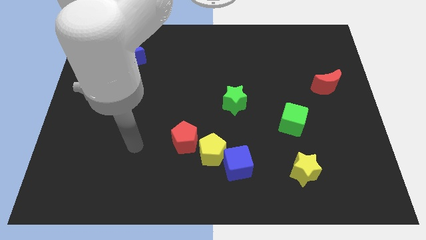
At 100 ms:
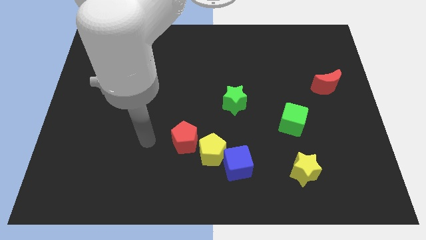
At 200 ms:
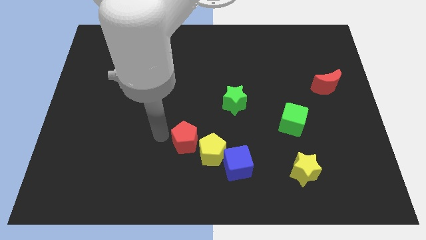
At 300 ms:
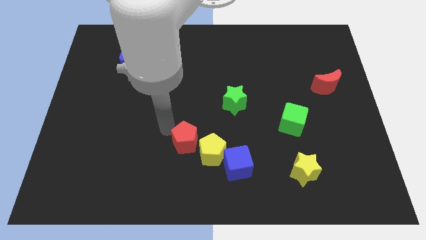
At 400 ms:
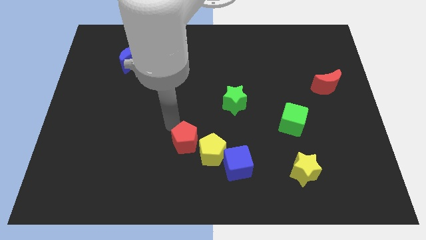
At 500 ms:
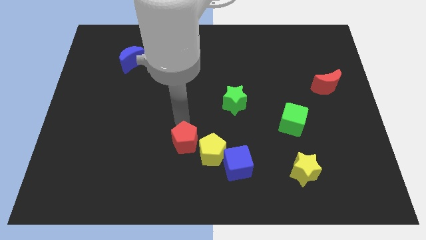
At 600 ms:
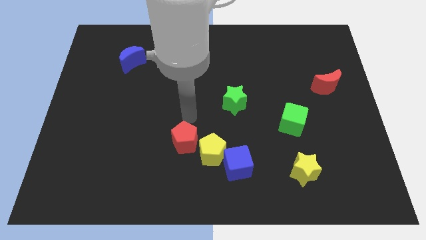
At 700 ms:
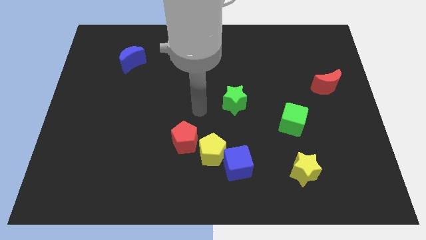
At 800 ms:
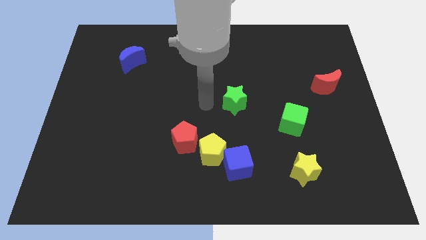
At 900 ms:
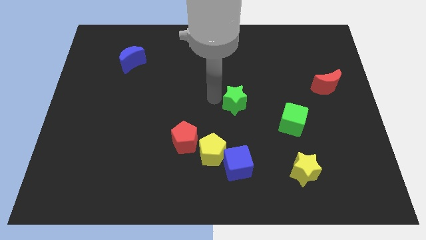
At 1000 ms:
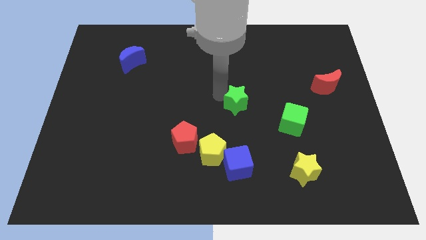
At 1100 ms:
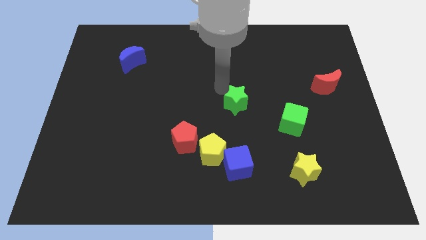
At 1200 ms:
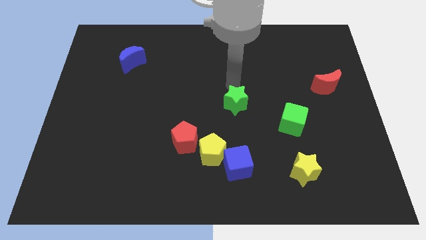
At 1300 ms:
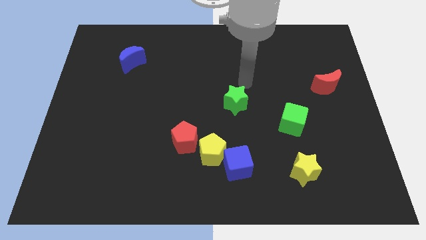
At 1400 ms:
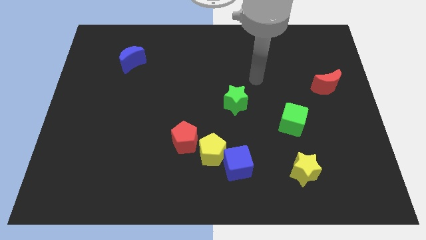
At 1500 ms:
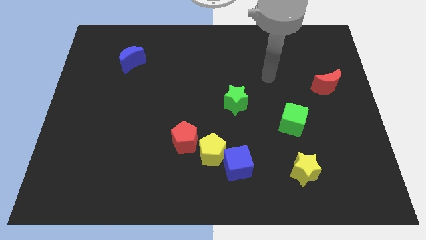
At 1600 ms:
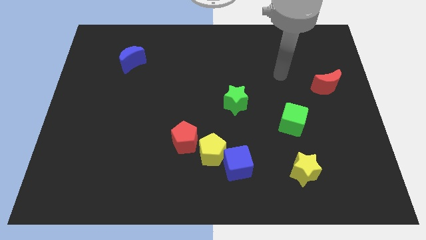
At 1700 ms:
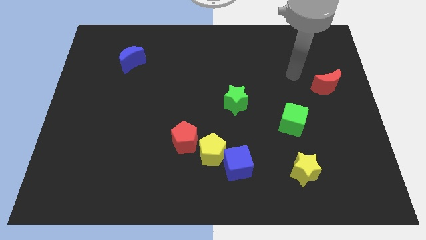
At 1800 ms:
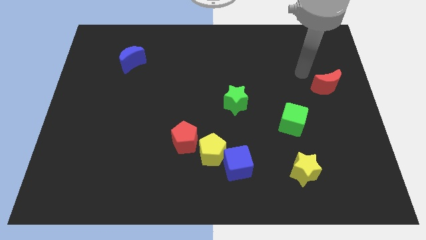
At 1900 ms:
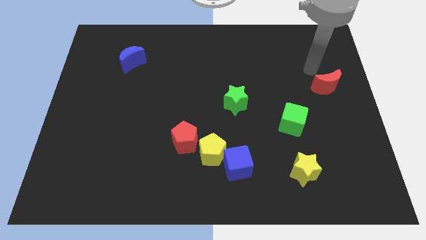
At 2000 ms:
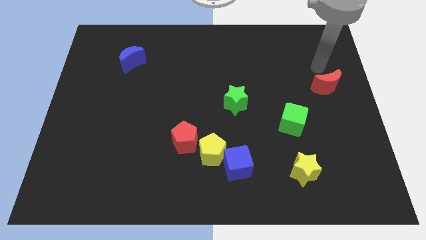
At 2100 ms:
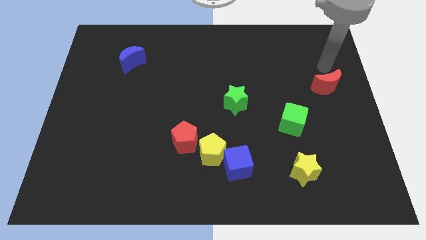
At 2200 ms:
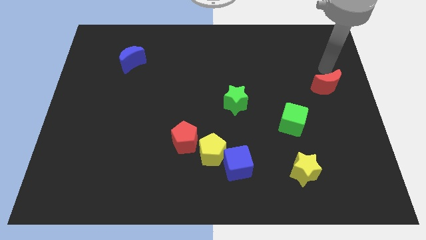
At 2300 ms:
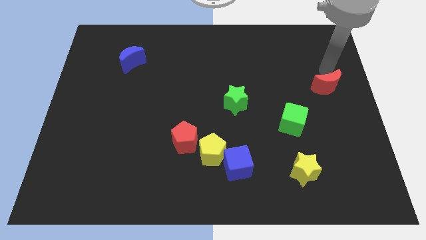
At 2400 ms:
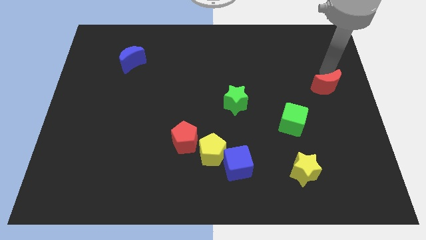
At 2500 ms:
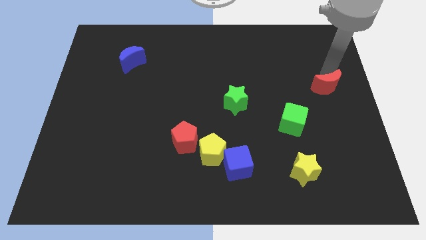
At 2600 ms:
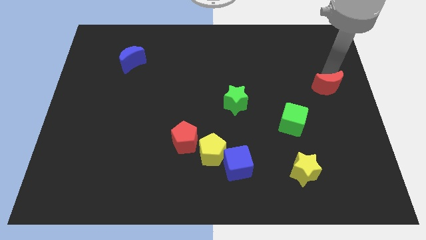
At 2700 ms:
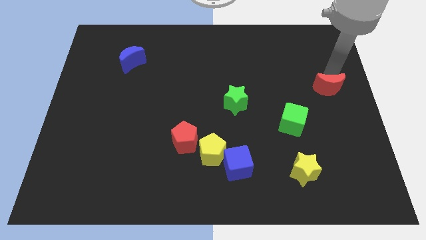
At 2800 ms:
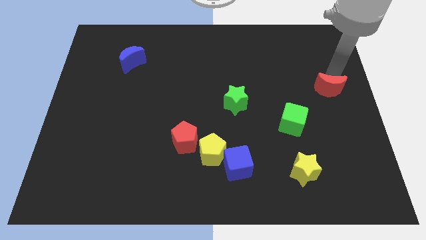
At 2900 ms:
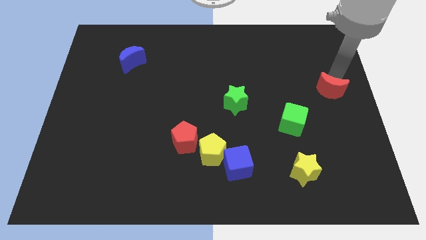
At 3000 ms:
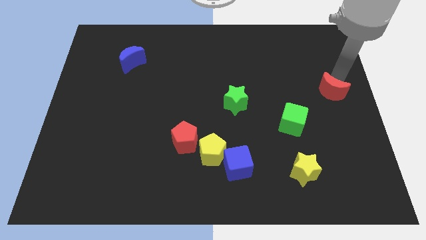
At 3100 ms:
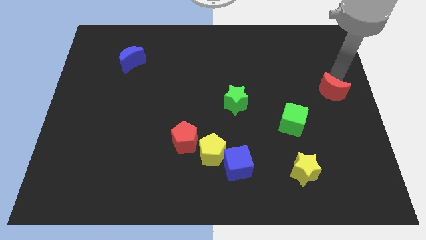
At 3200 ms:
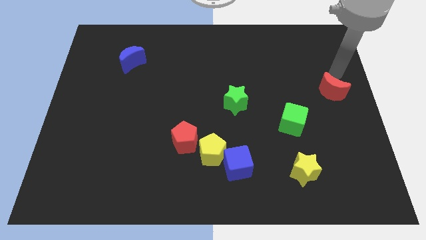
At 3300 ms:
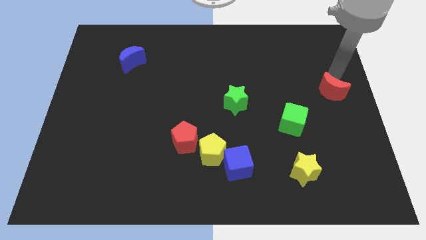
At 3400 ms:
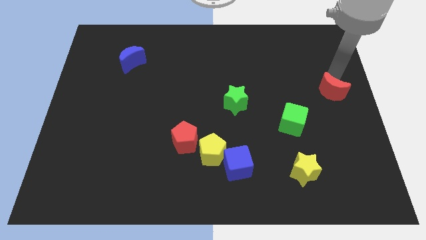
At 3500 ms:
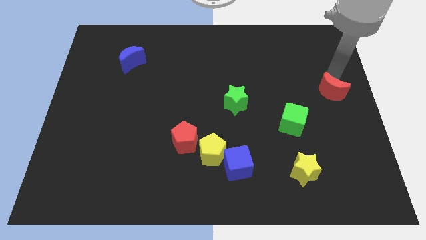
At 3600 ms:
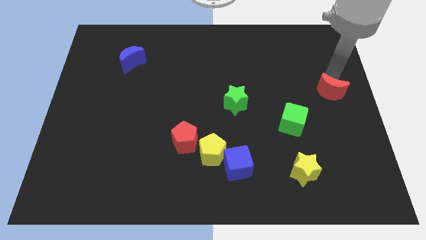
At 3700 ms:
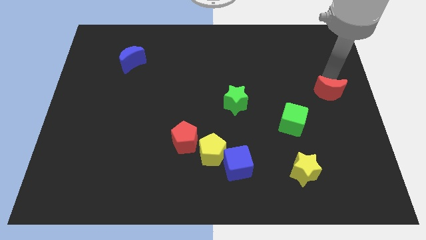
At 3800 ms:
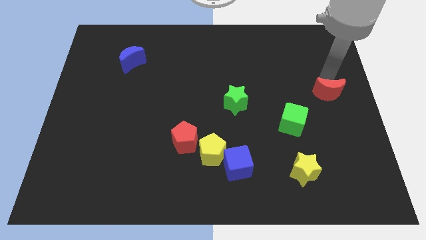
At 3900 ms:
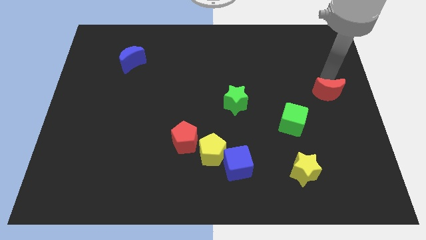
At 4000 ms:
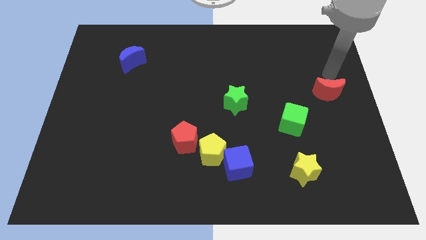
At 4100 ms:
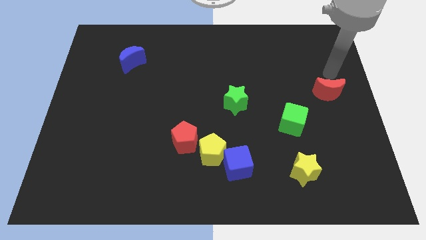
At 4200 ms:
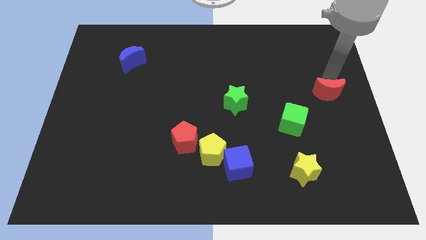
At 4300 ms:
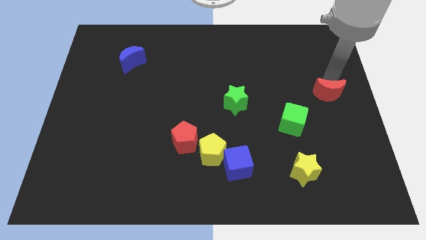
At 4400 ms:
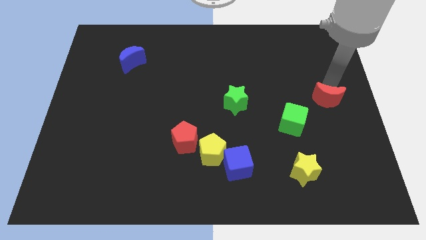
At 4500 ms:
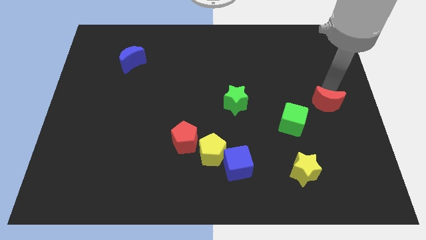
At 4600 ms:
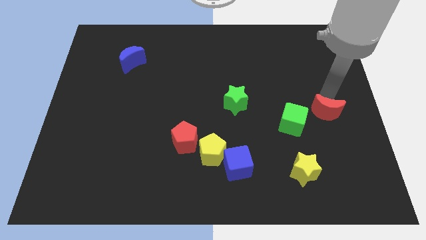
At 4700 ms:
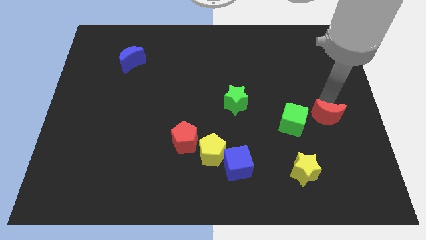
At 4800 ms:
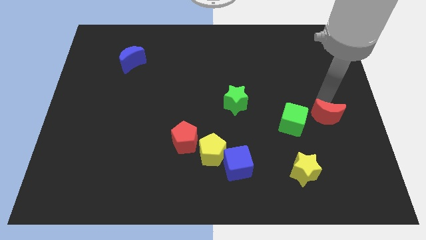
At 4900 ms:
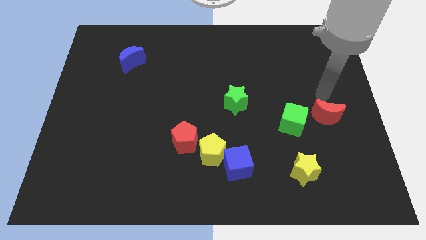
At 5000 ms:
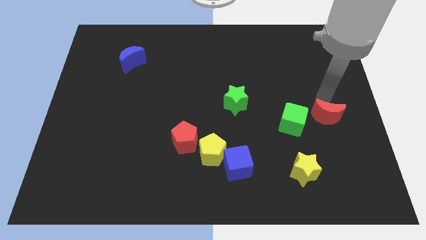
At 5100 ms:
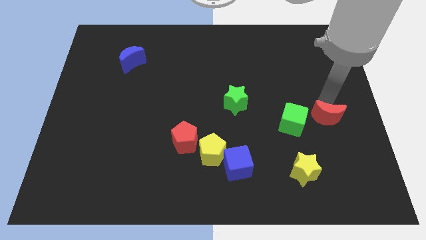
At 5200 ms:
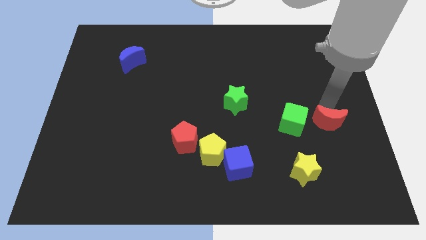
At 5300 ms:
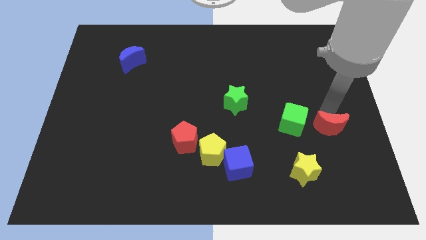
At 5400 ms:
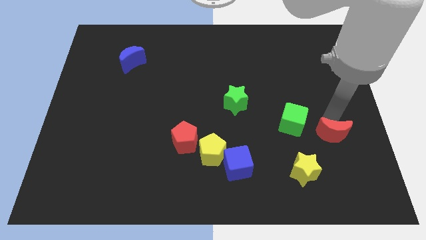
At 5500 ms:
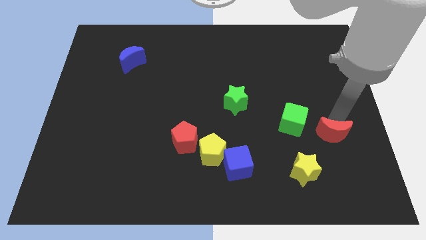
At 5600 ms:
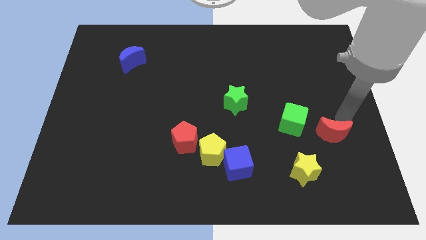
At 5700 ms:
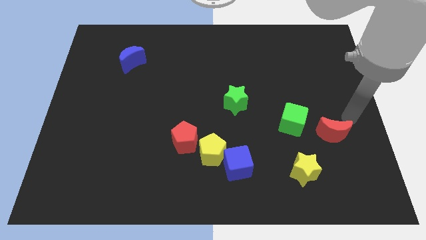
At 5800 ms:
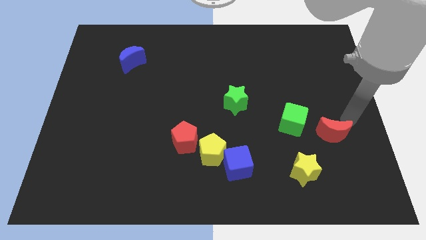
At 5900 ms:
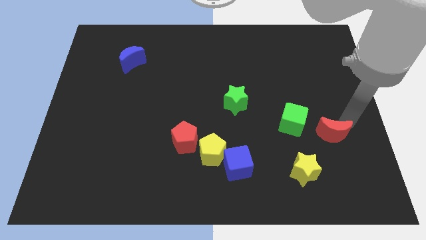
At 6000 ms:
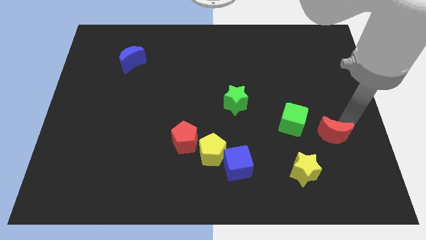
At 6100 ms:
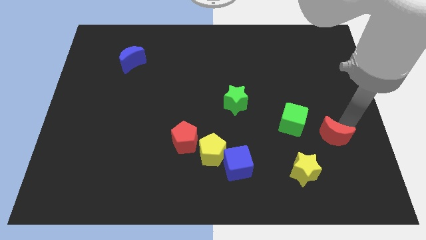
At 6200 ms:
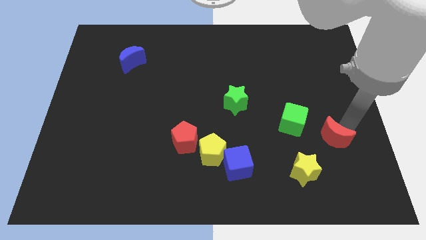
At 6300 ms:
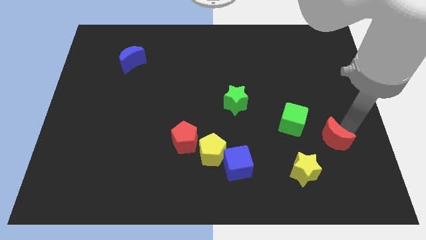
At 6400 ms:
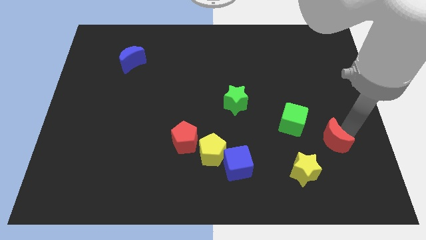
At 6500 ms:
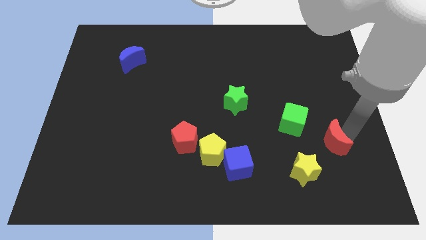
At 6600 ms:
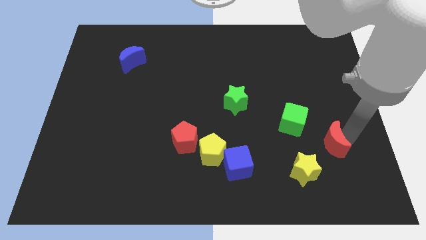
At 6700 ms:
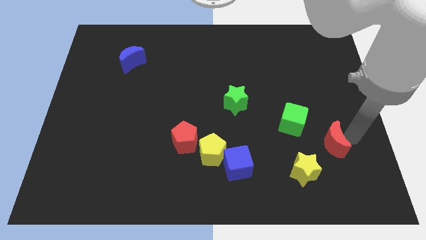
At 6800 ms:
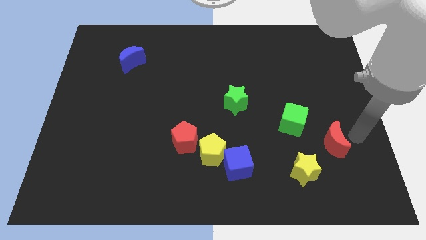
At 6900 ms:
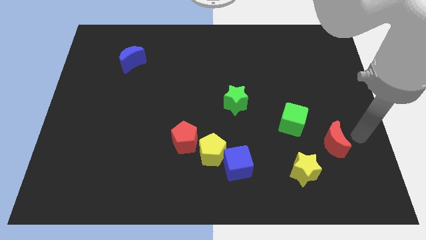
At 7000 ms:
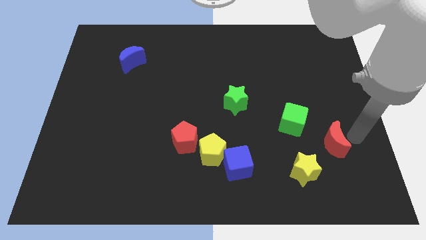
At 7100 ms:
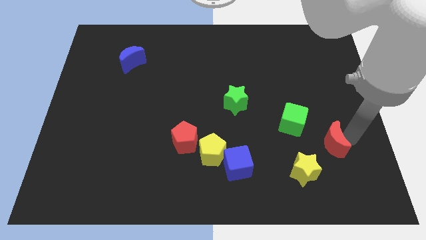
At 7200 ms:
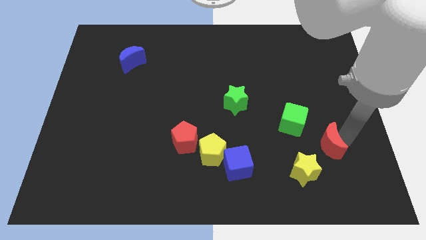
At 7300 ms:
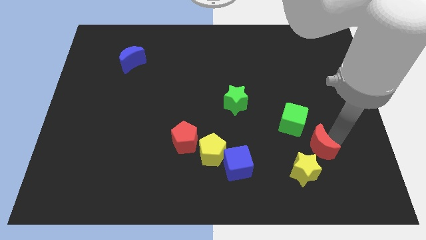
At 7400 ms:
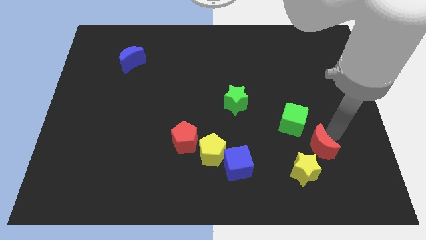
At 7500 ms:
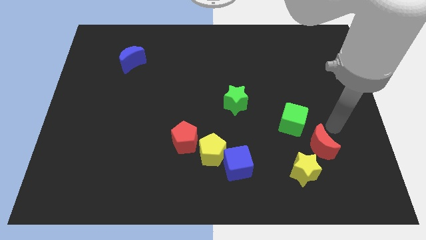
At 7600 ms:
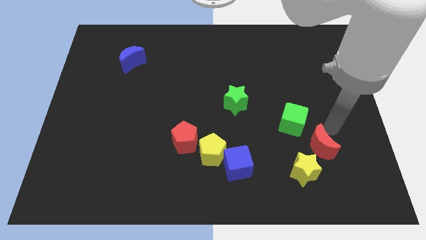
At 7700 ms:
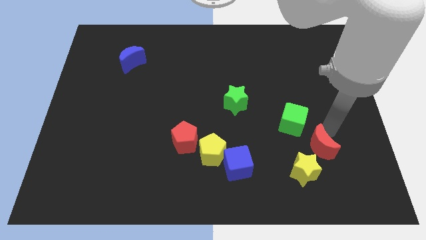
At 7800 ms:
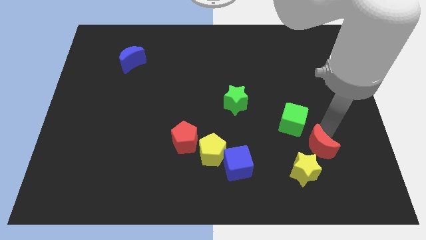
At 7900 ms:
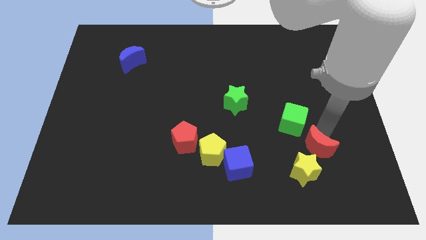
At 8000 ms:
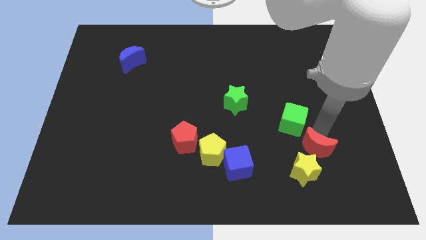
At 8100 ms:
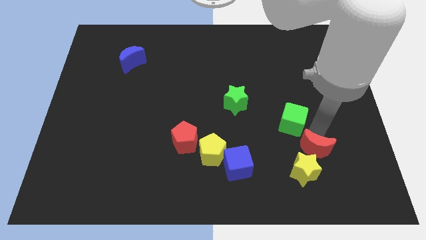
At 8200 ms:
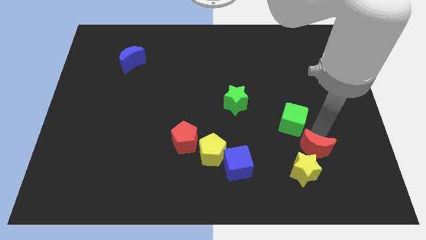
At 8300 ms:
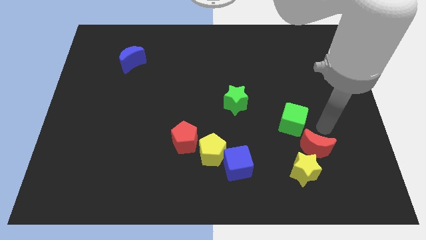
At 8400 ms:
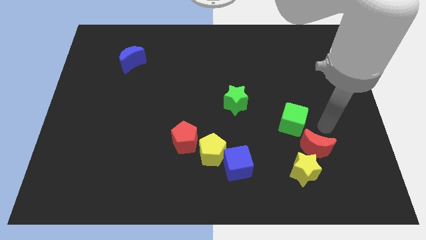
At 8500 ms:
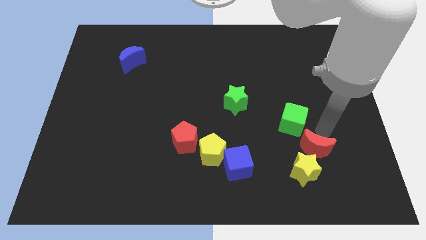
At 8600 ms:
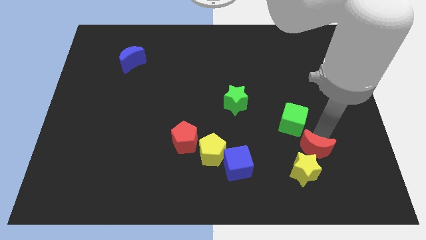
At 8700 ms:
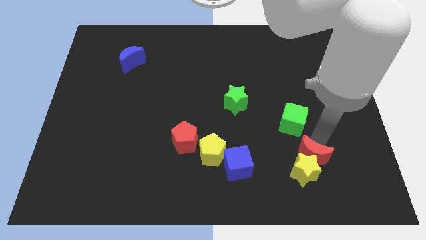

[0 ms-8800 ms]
move the red moon close to the yellow star
